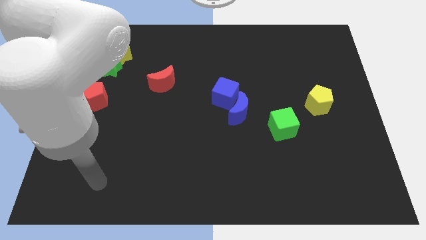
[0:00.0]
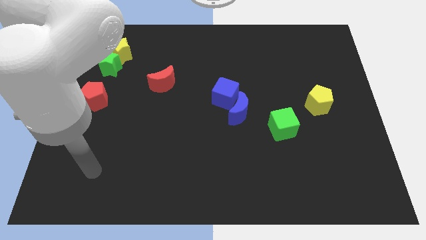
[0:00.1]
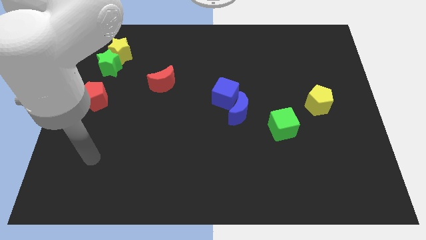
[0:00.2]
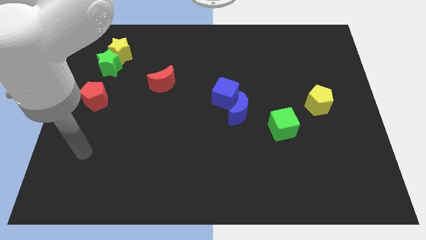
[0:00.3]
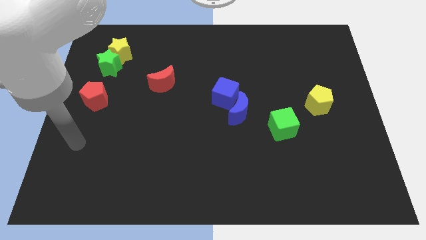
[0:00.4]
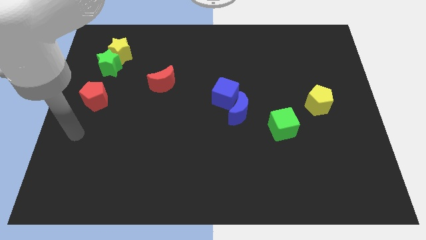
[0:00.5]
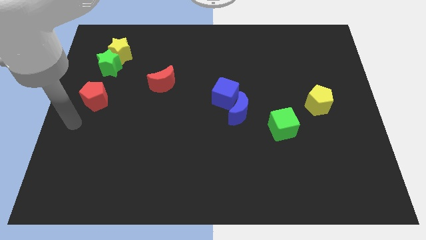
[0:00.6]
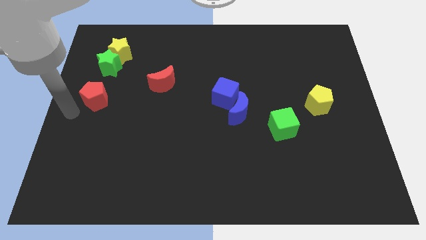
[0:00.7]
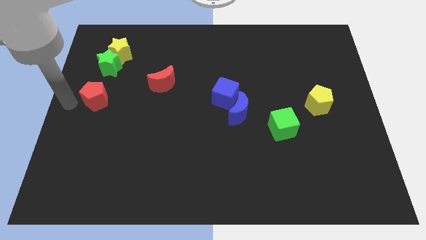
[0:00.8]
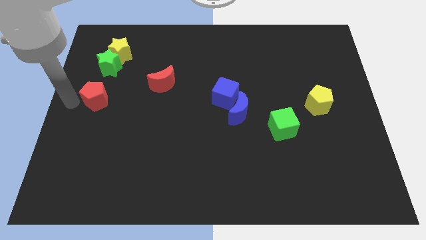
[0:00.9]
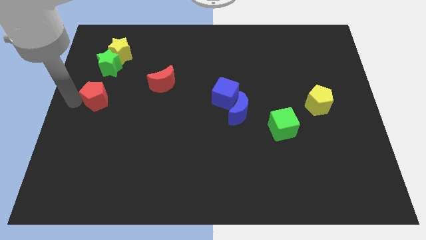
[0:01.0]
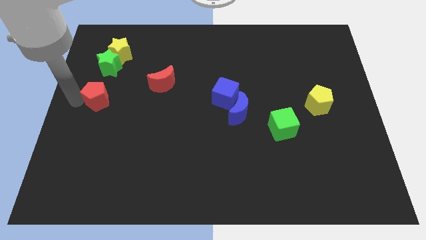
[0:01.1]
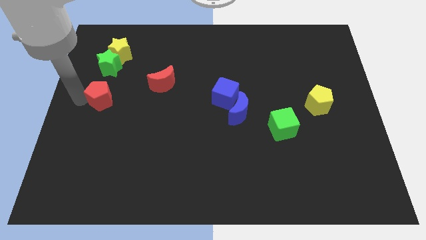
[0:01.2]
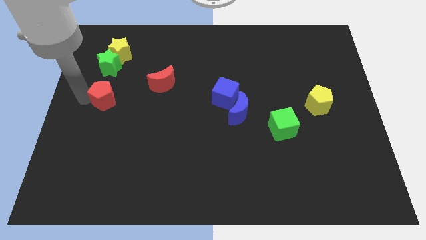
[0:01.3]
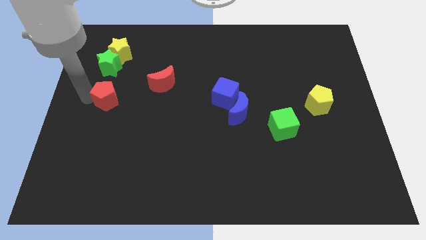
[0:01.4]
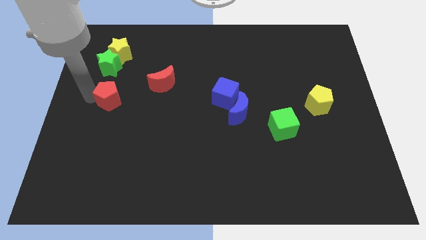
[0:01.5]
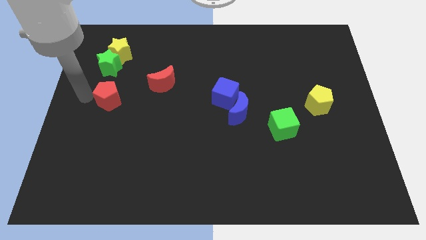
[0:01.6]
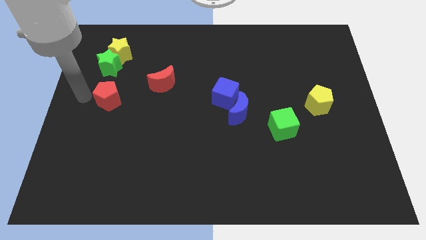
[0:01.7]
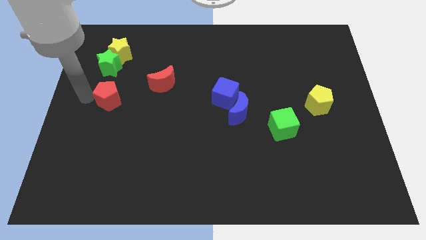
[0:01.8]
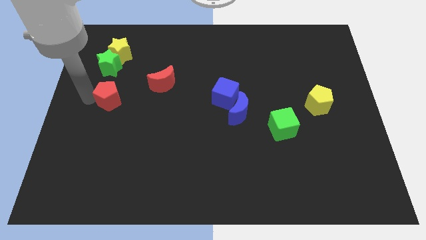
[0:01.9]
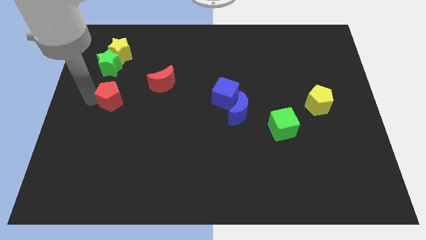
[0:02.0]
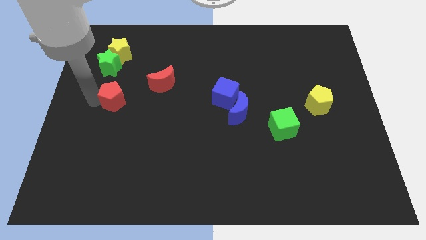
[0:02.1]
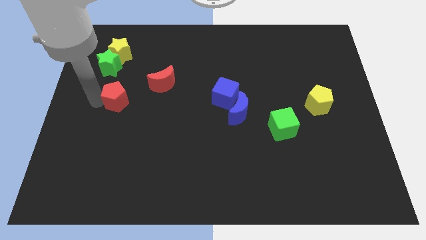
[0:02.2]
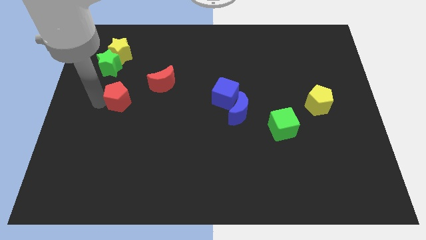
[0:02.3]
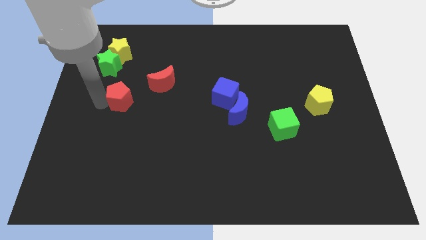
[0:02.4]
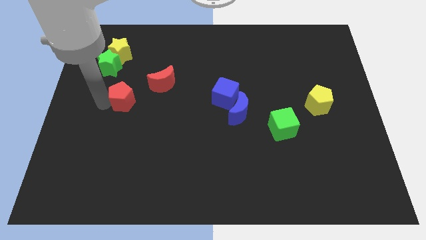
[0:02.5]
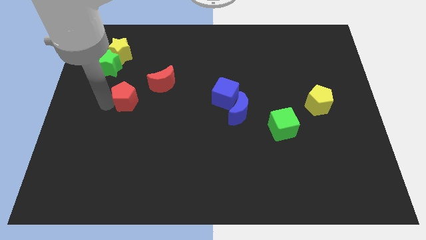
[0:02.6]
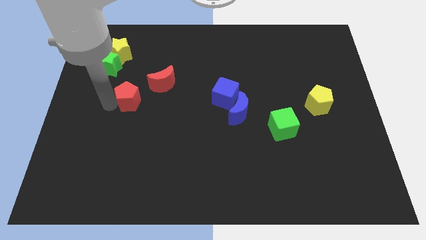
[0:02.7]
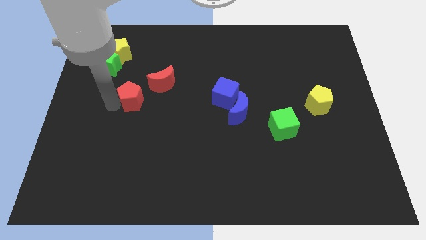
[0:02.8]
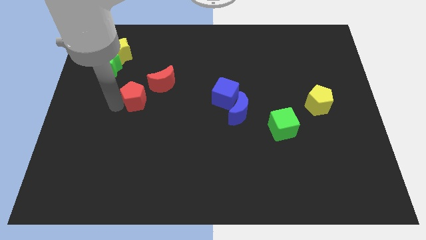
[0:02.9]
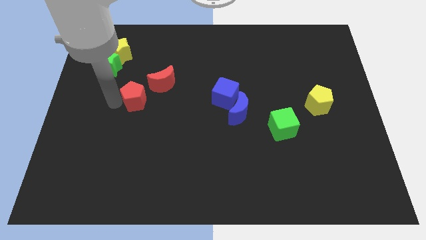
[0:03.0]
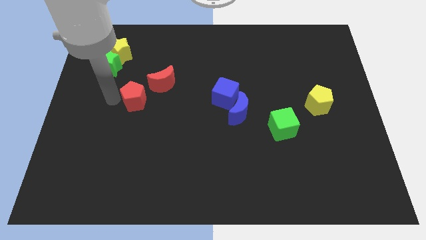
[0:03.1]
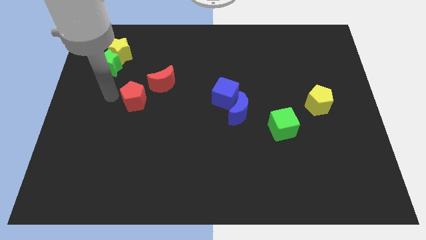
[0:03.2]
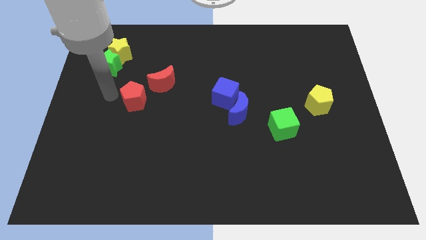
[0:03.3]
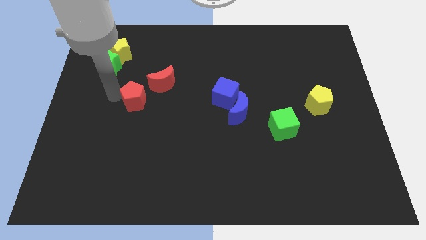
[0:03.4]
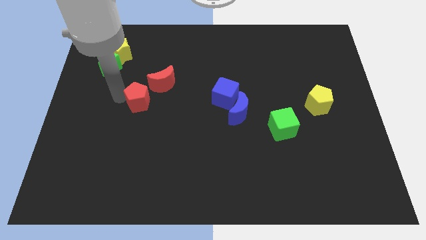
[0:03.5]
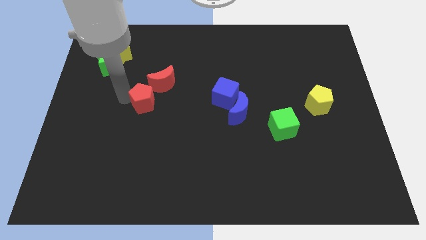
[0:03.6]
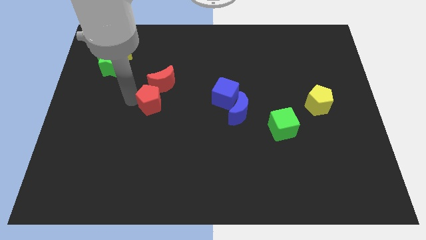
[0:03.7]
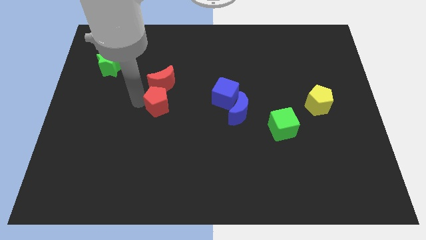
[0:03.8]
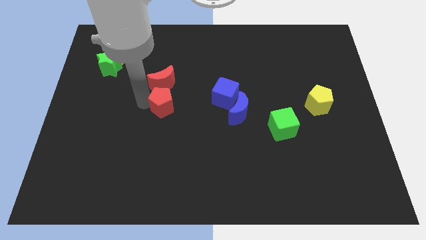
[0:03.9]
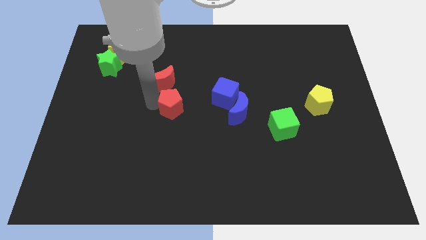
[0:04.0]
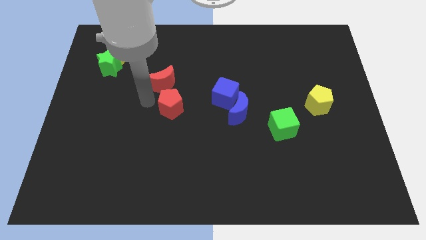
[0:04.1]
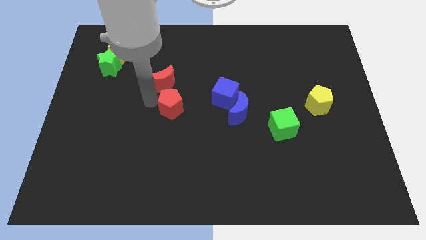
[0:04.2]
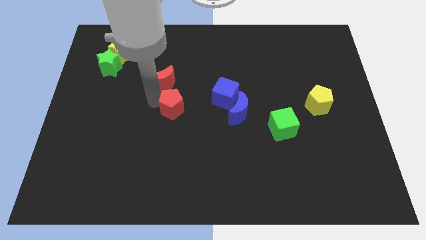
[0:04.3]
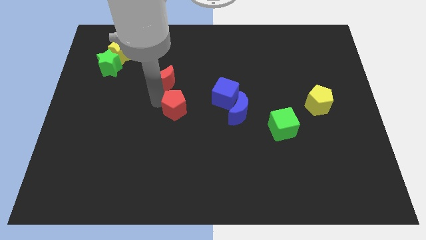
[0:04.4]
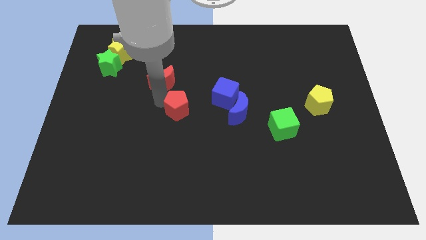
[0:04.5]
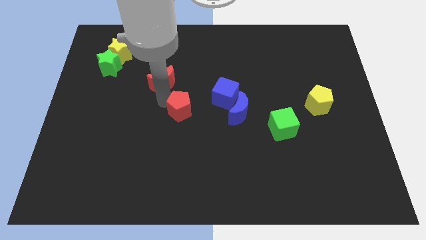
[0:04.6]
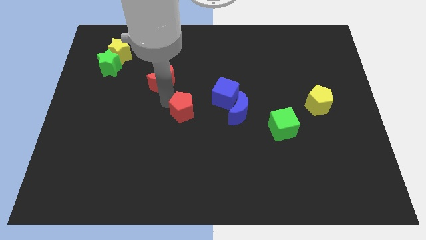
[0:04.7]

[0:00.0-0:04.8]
slide the red pentagon to the bottom left side of the blue cube

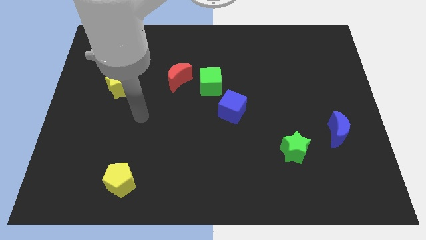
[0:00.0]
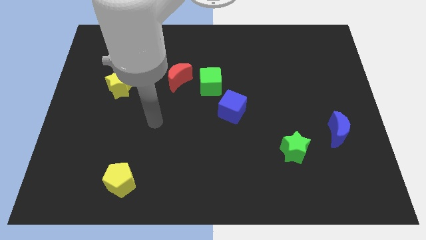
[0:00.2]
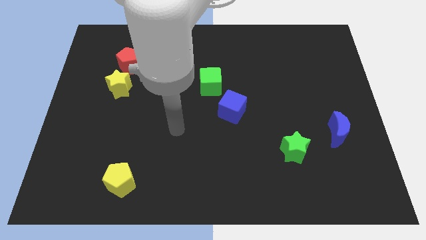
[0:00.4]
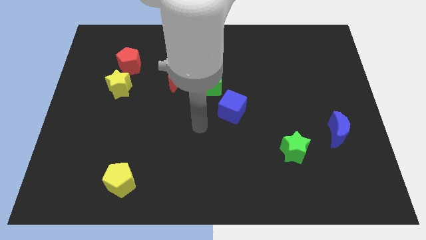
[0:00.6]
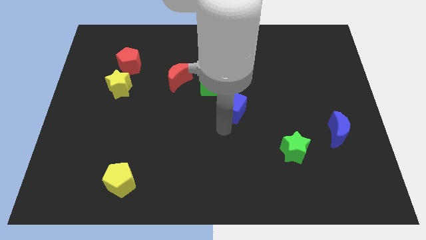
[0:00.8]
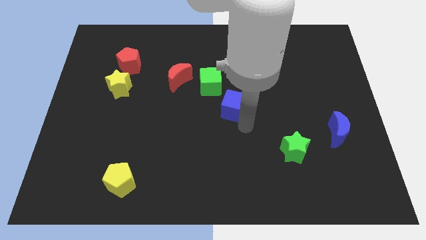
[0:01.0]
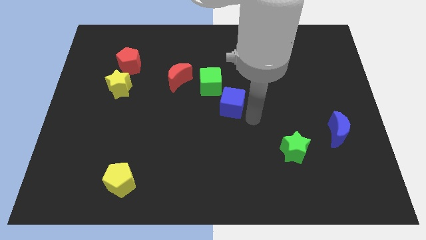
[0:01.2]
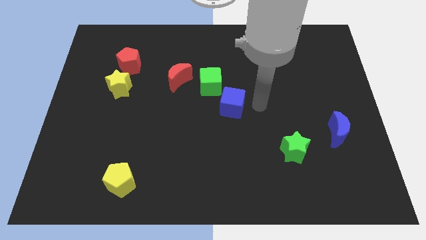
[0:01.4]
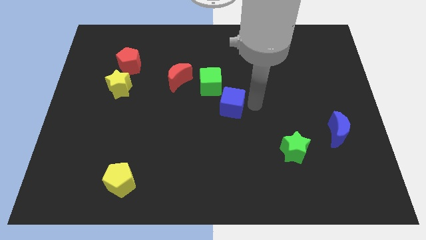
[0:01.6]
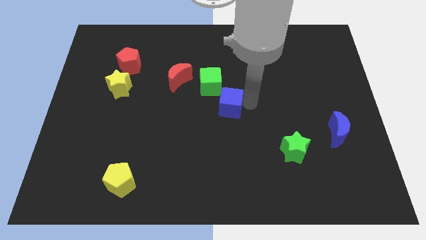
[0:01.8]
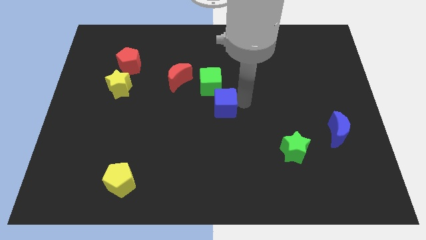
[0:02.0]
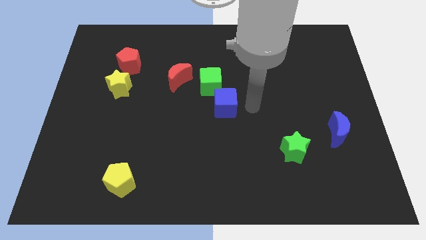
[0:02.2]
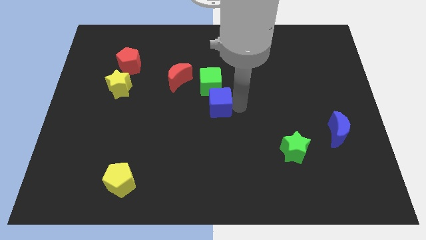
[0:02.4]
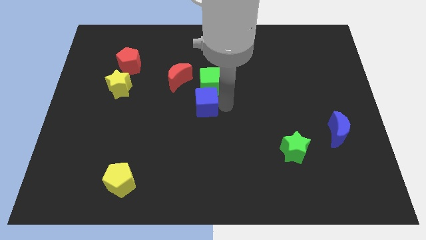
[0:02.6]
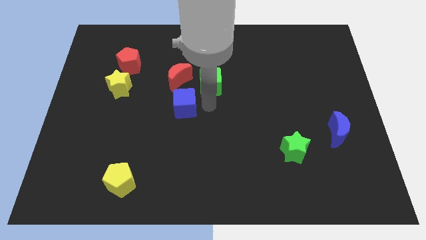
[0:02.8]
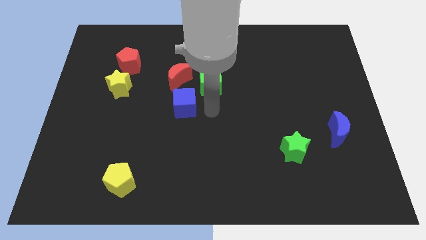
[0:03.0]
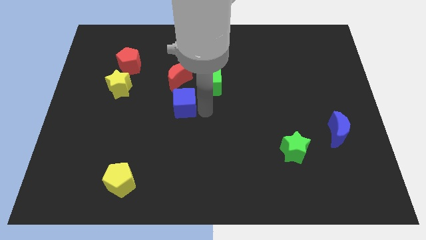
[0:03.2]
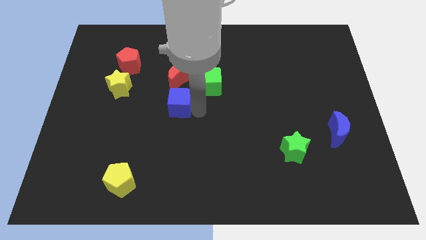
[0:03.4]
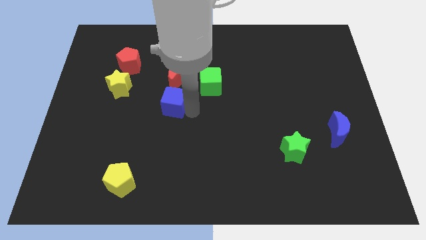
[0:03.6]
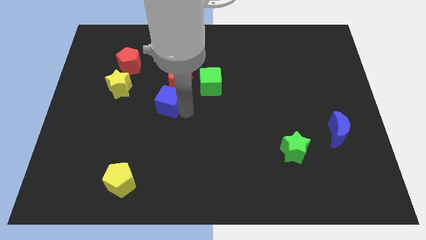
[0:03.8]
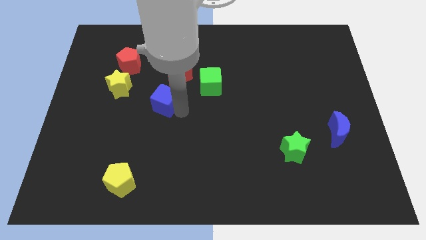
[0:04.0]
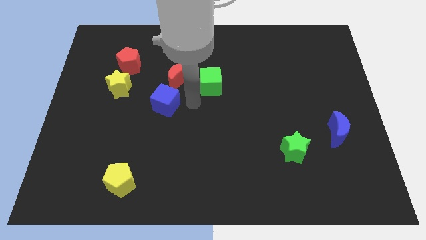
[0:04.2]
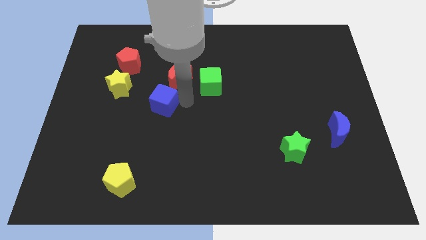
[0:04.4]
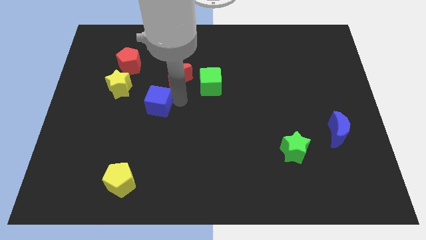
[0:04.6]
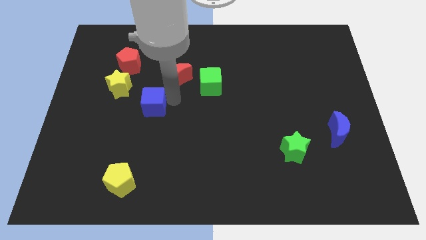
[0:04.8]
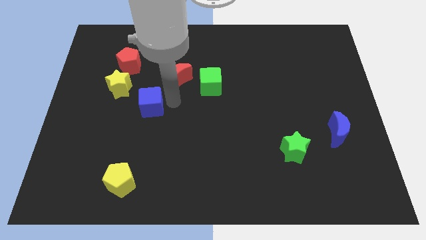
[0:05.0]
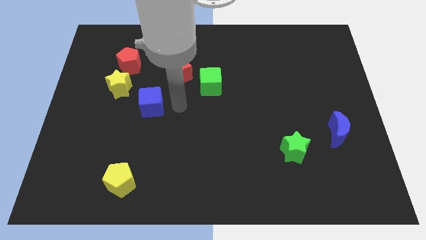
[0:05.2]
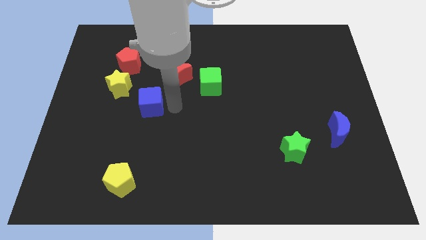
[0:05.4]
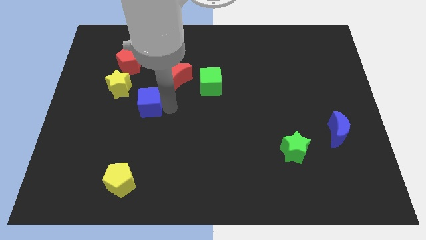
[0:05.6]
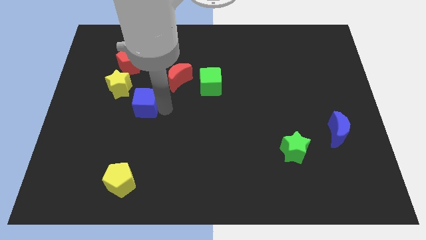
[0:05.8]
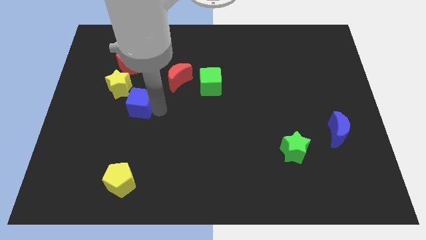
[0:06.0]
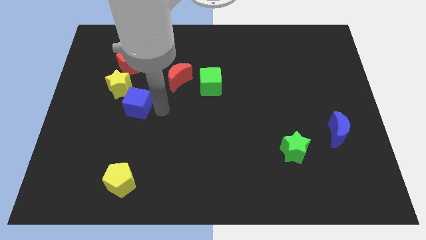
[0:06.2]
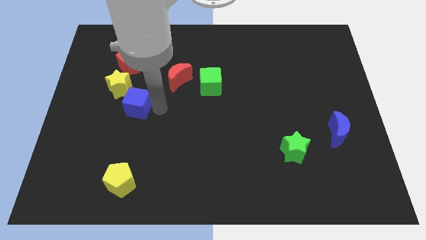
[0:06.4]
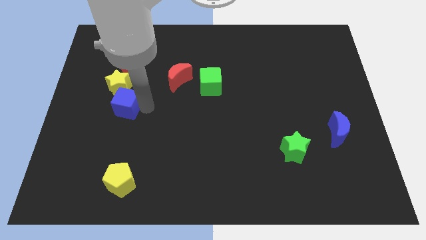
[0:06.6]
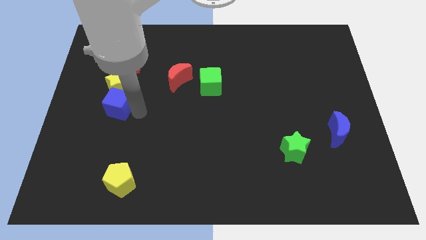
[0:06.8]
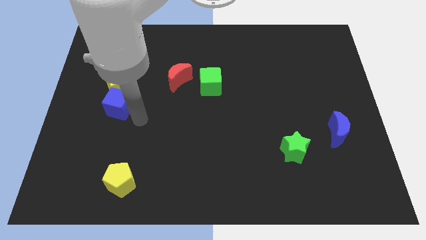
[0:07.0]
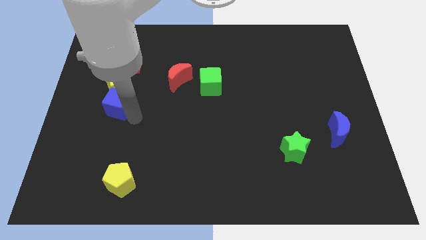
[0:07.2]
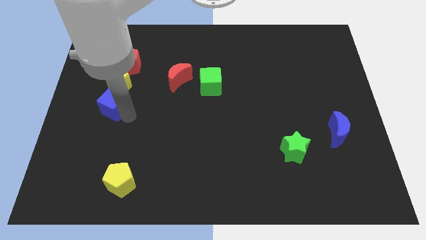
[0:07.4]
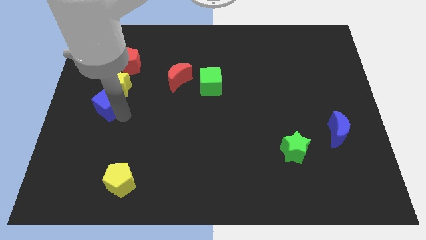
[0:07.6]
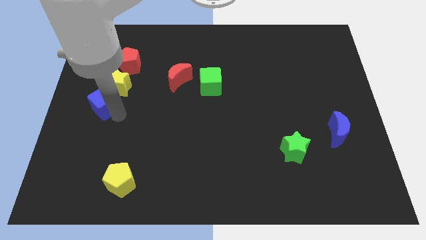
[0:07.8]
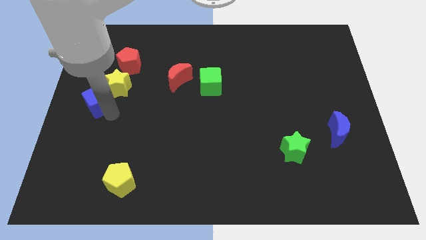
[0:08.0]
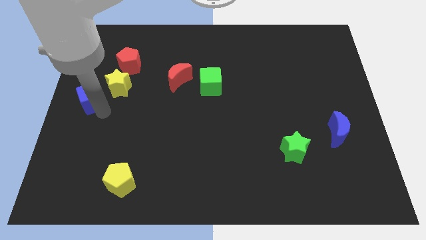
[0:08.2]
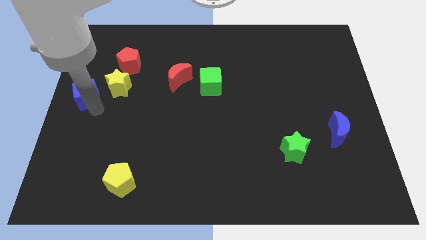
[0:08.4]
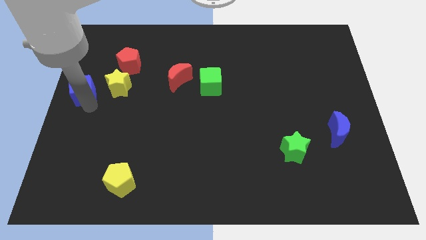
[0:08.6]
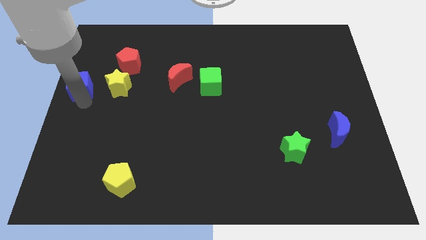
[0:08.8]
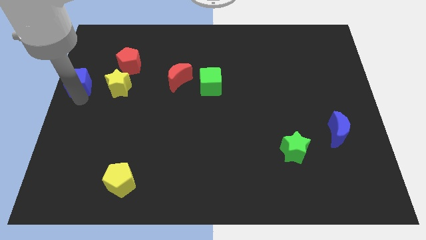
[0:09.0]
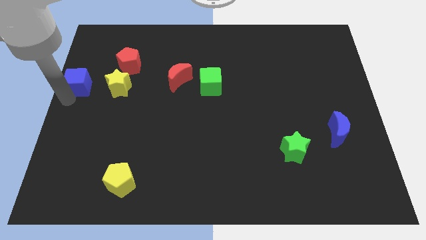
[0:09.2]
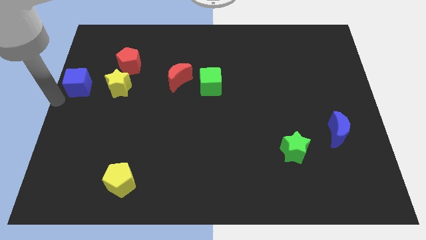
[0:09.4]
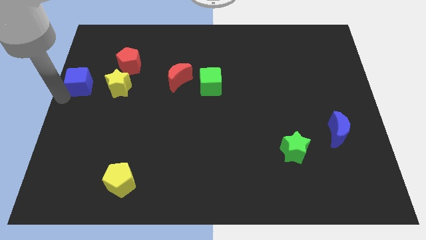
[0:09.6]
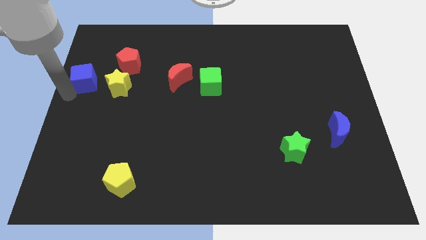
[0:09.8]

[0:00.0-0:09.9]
slide the blue cube diagonally up and to the left of the yellow star
